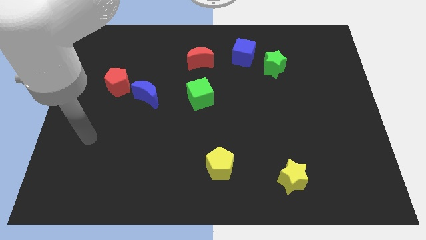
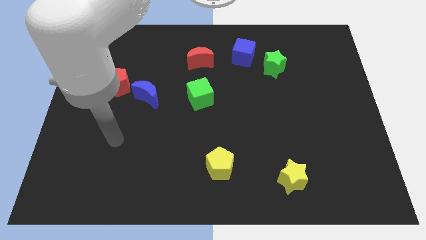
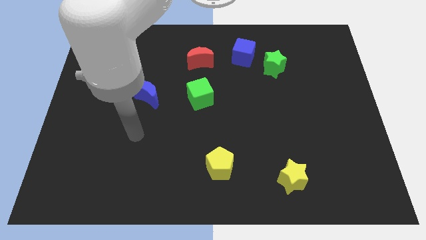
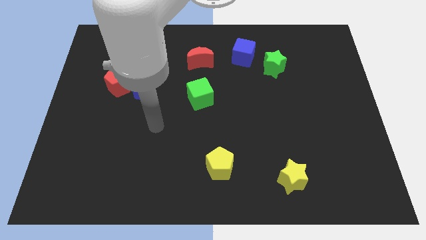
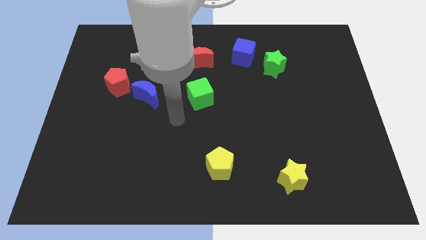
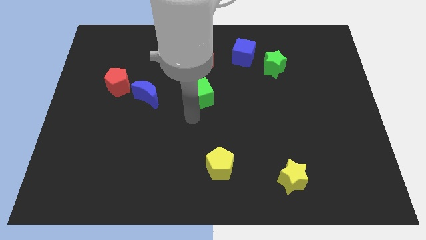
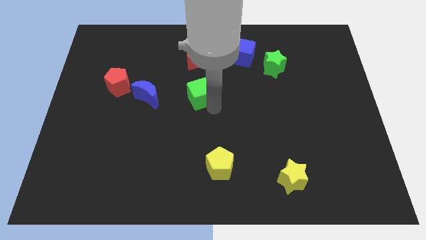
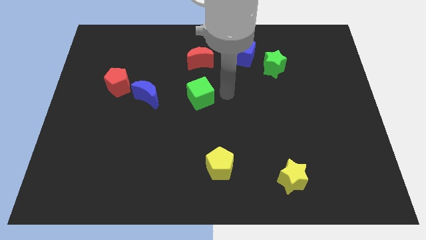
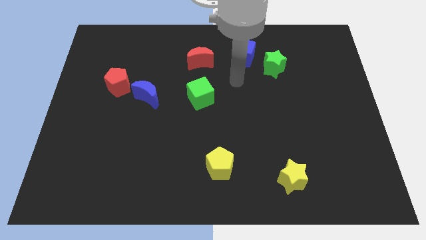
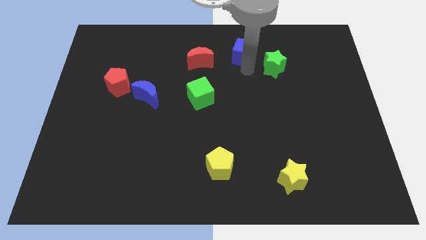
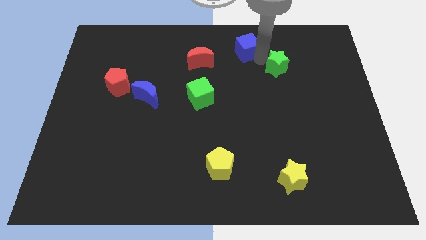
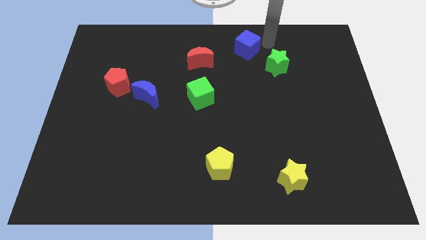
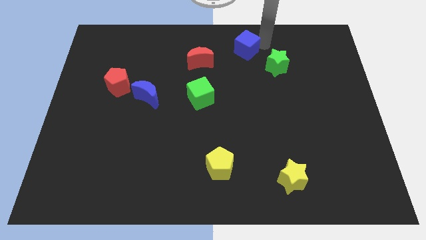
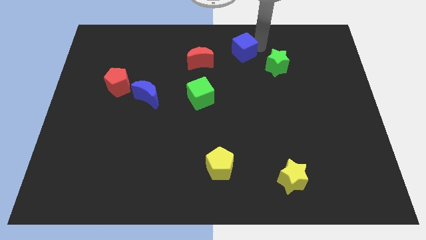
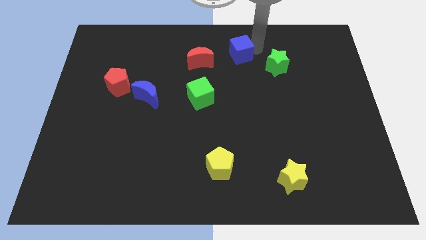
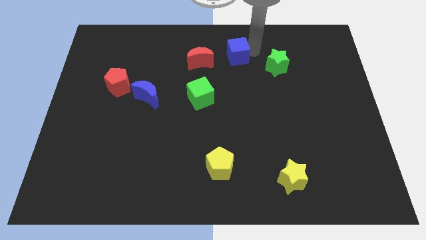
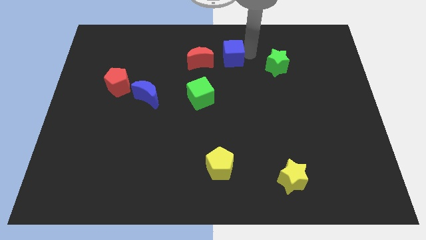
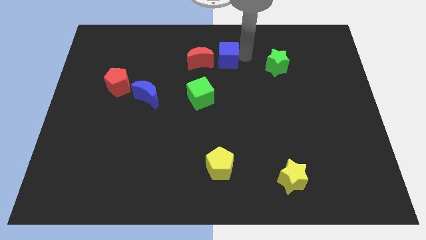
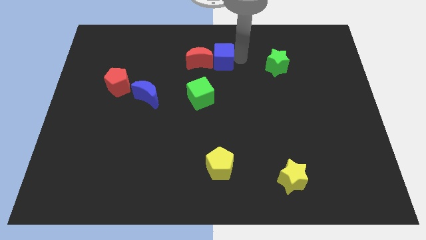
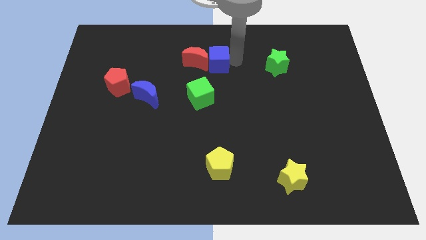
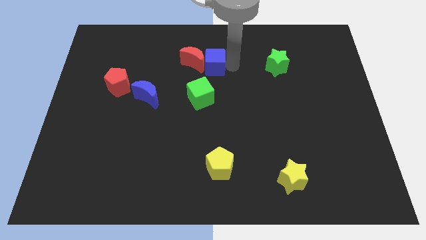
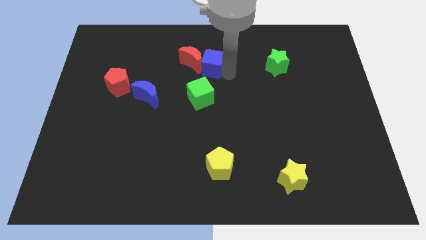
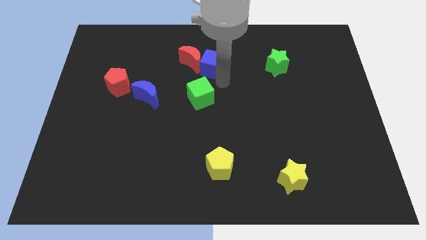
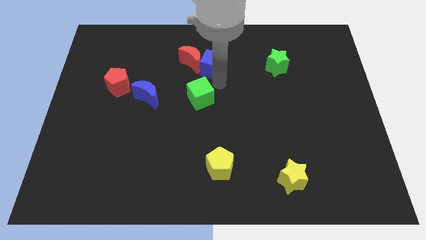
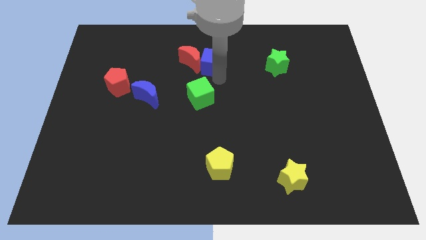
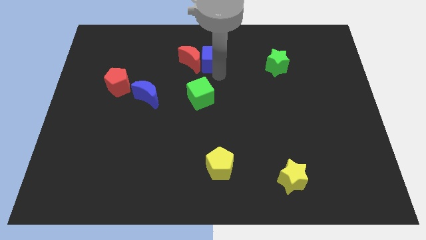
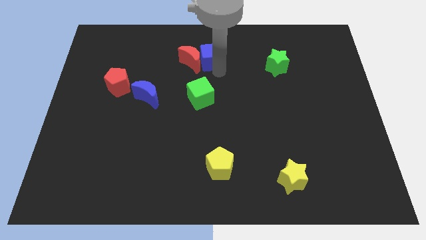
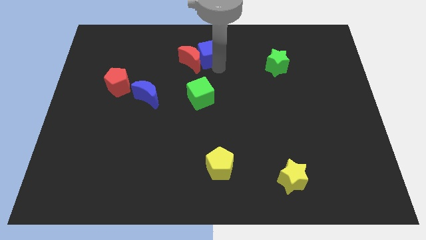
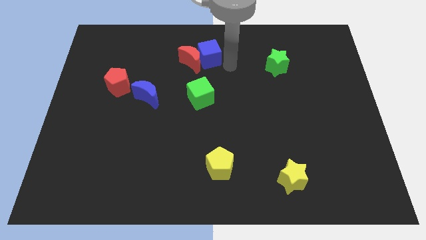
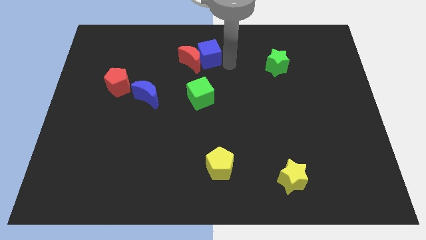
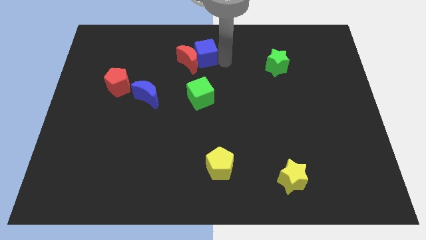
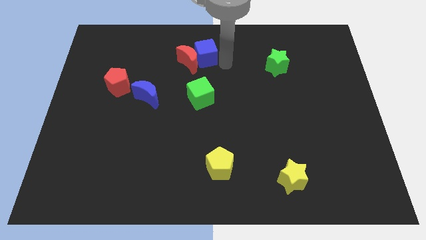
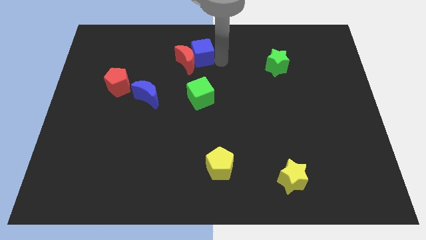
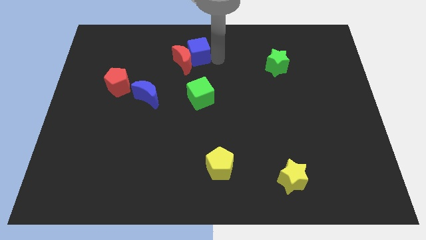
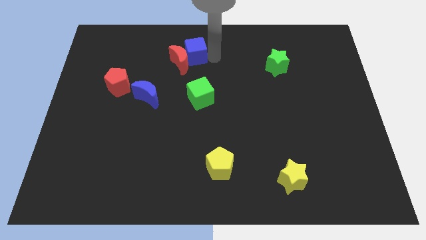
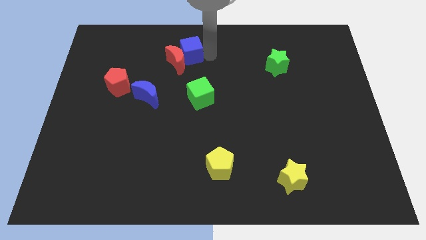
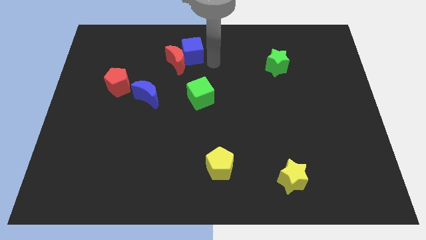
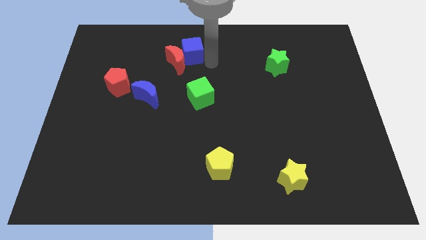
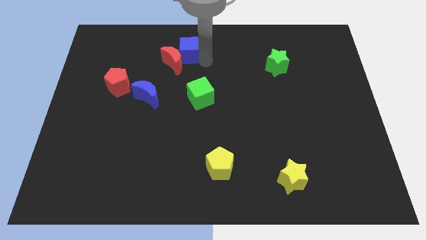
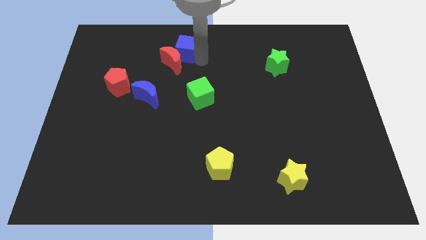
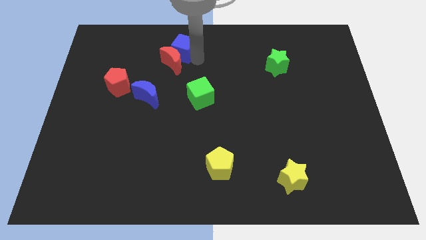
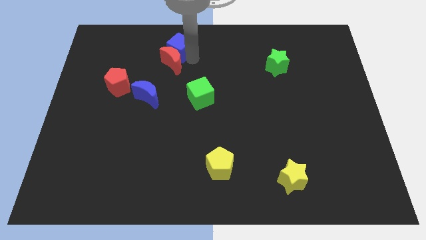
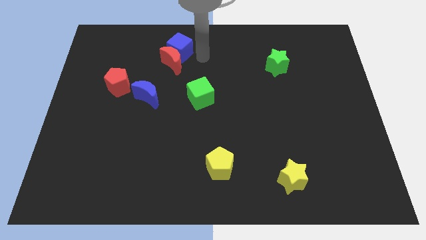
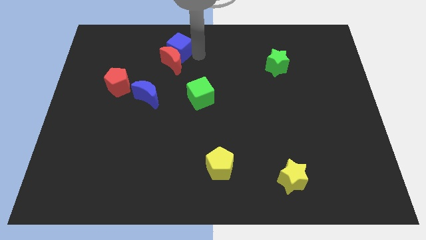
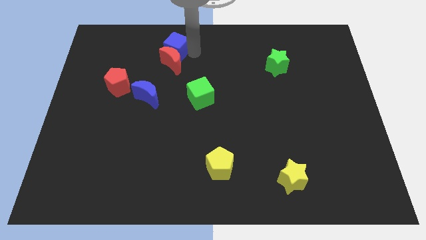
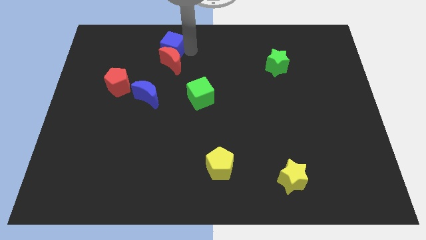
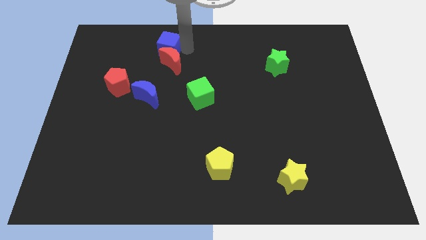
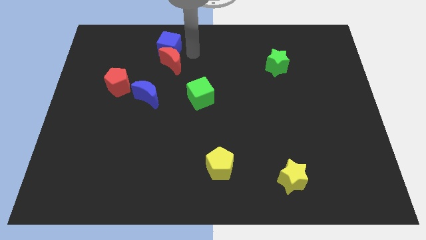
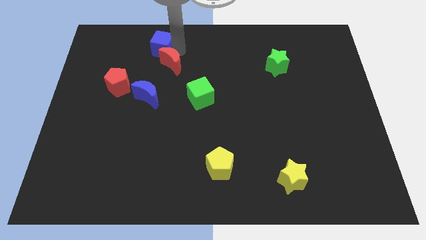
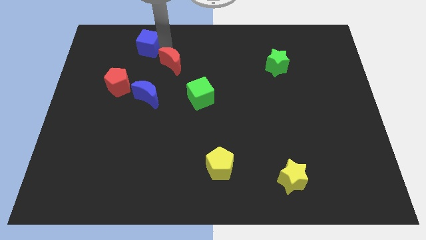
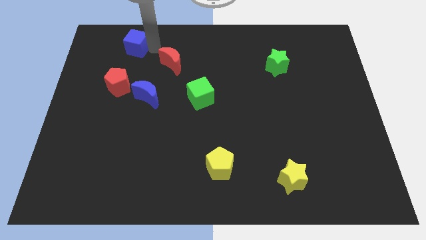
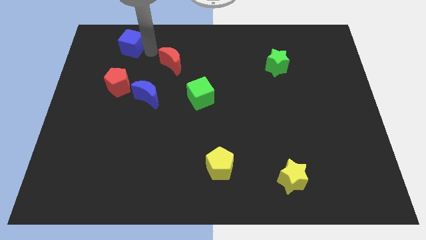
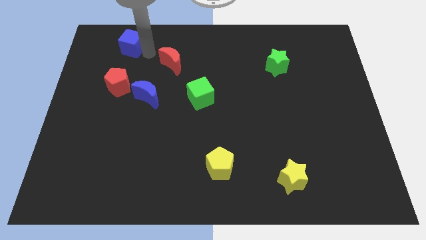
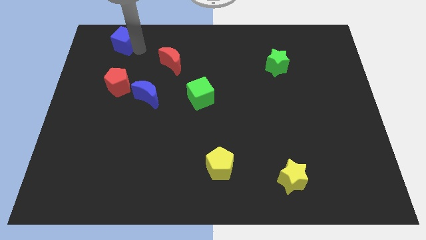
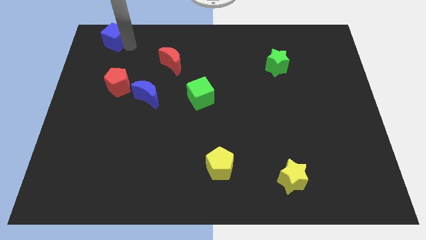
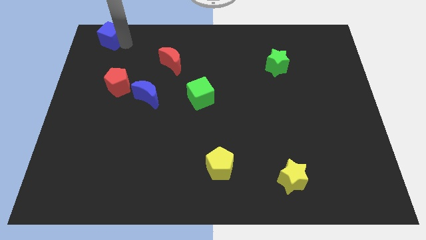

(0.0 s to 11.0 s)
push the blue cube to the upper left corner

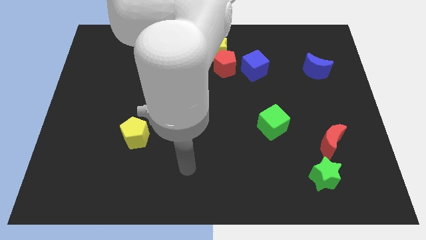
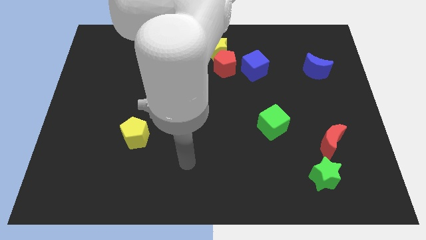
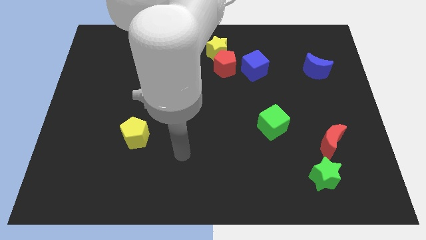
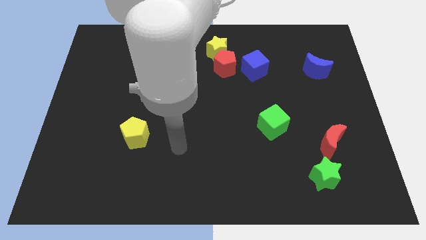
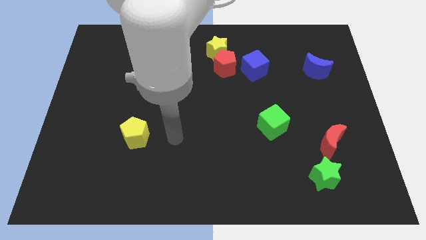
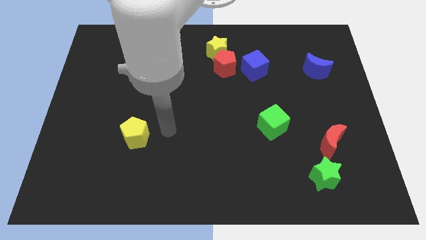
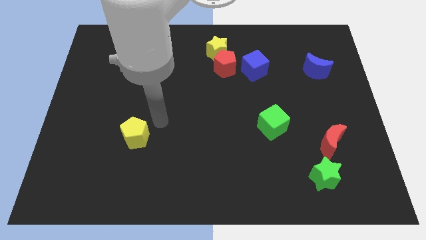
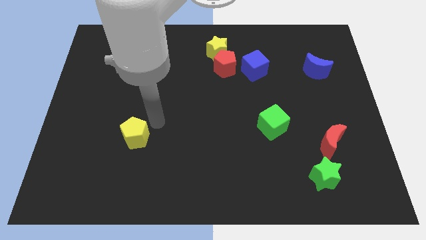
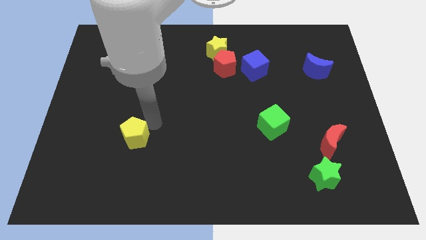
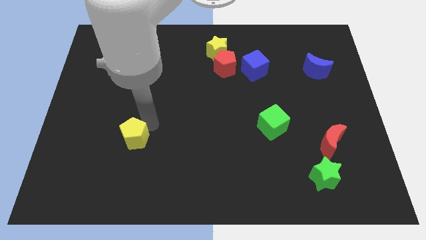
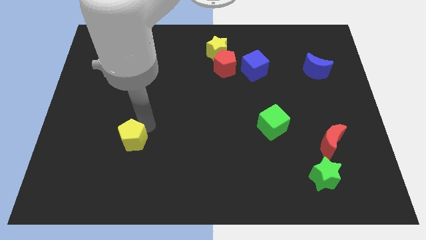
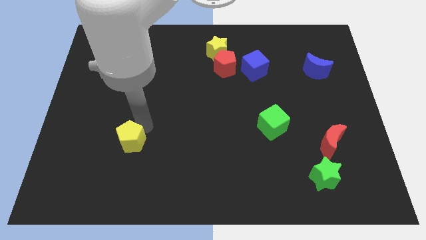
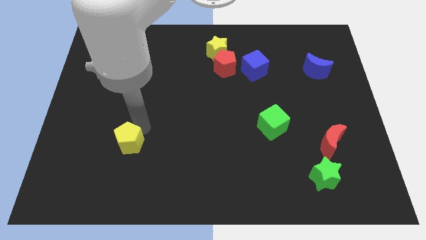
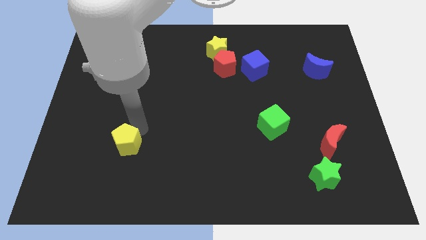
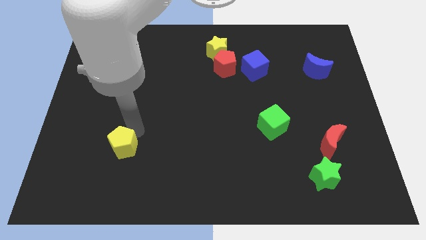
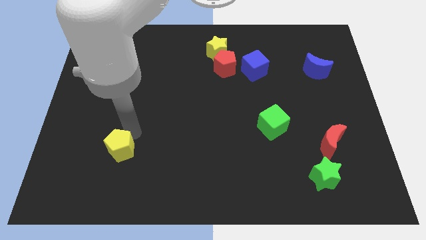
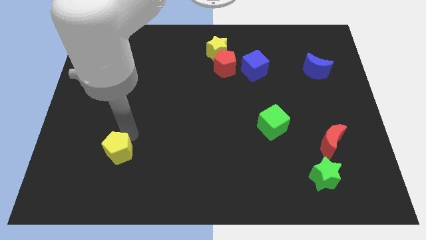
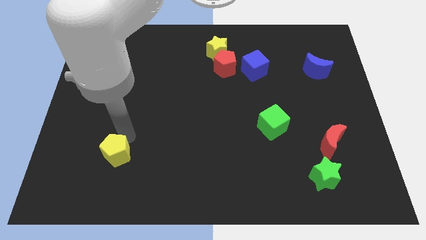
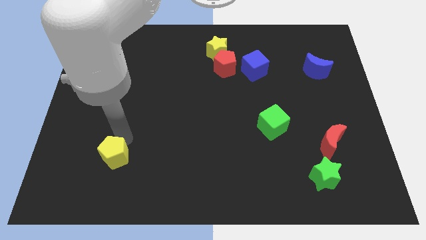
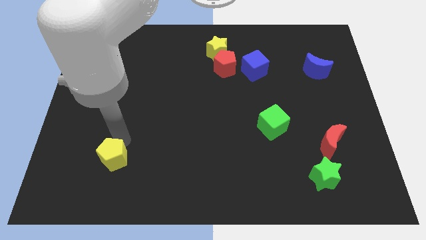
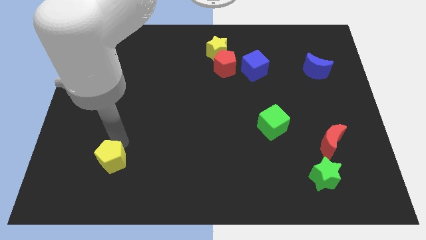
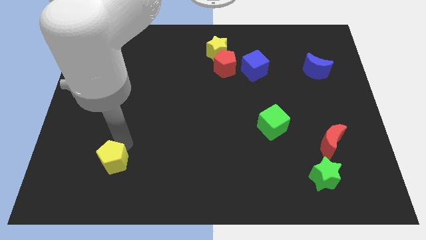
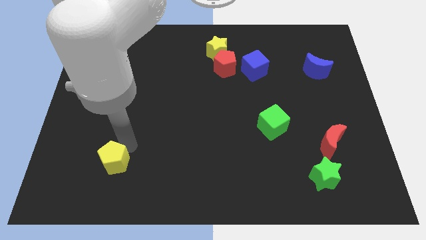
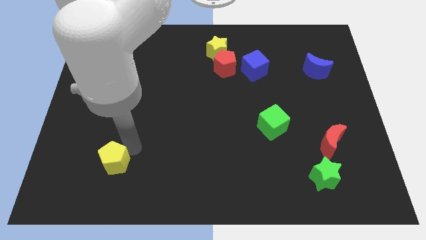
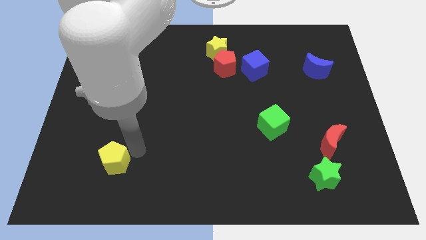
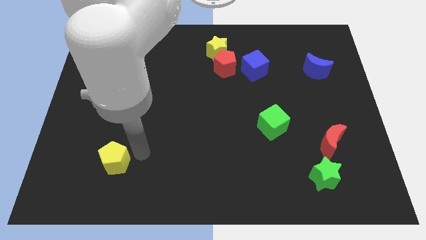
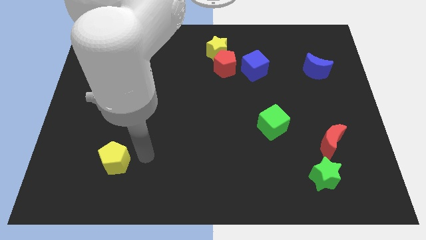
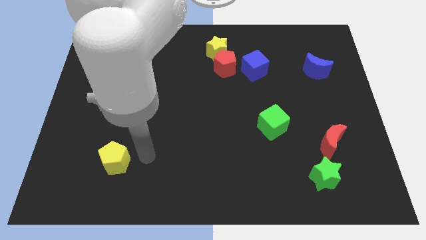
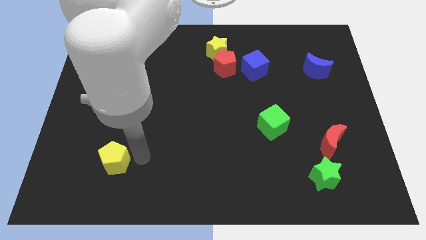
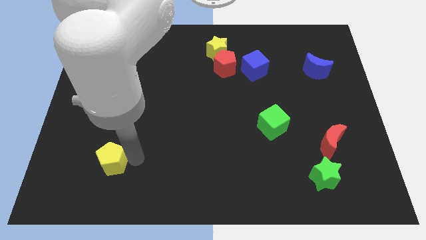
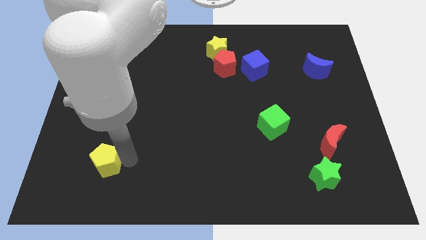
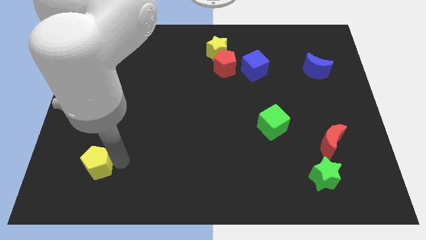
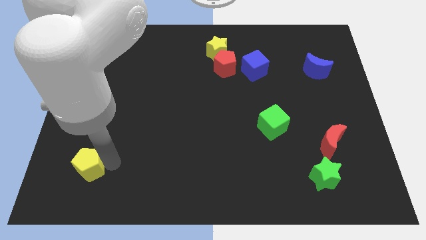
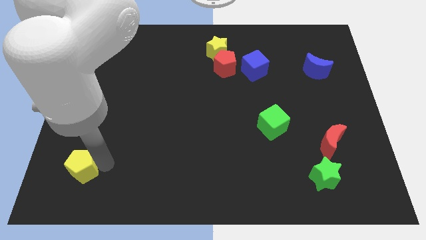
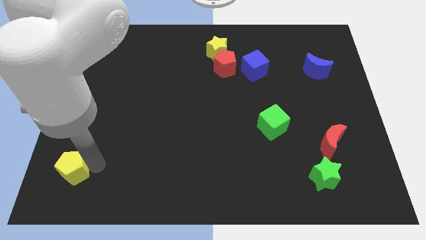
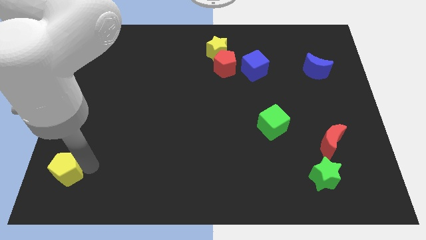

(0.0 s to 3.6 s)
move the yellow pentagon to the bottom left
